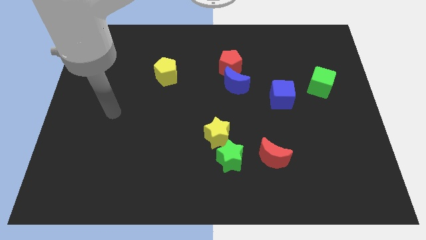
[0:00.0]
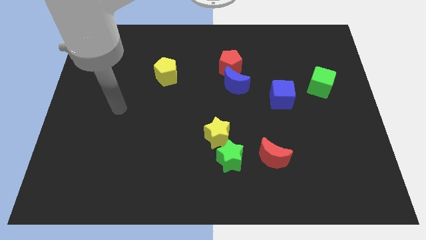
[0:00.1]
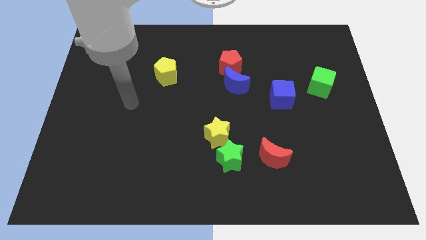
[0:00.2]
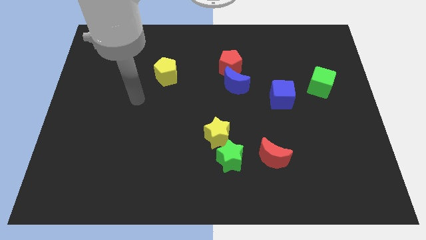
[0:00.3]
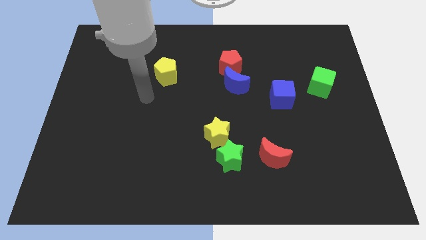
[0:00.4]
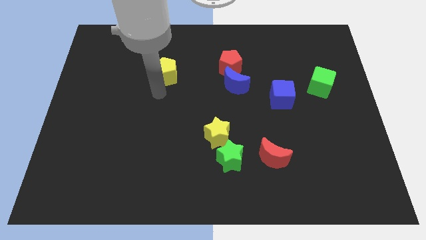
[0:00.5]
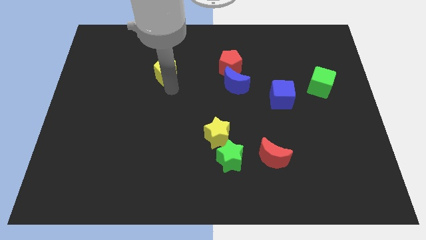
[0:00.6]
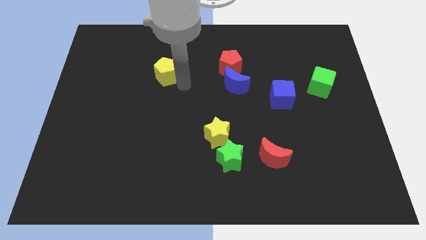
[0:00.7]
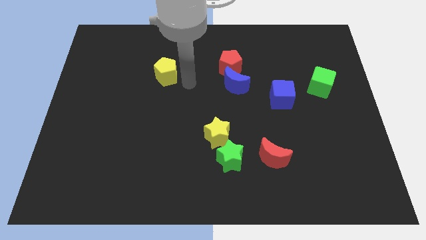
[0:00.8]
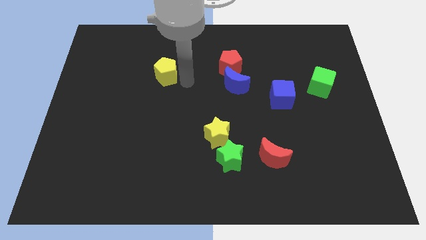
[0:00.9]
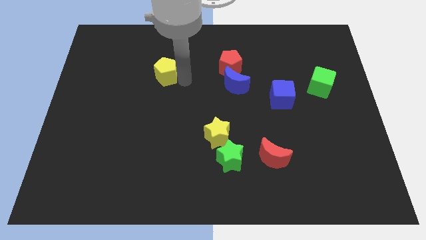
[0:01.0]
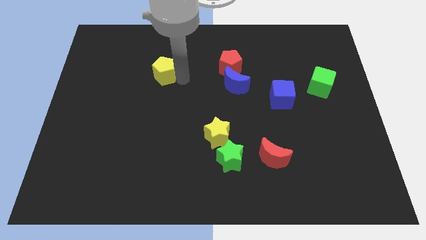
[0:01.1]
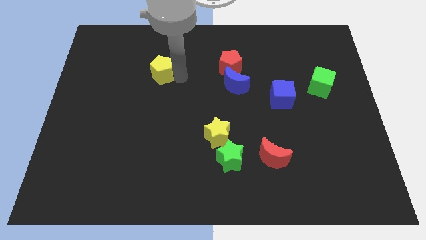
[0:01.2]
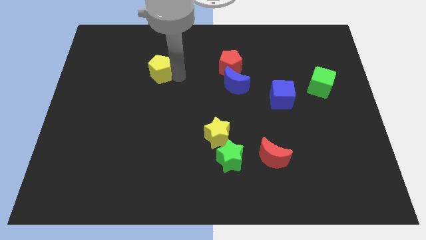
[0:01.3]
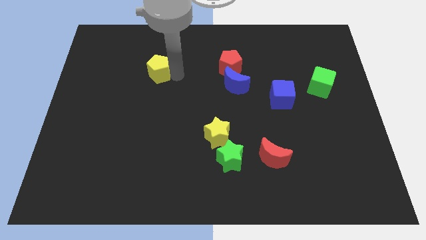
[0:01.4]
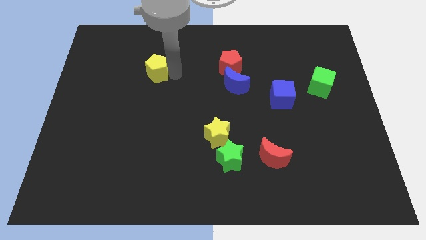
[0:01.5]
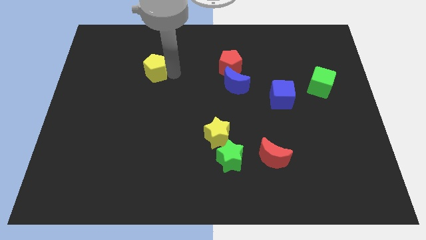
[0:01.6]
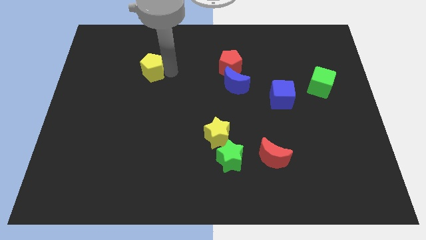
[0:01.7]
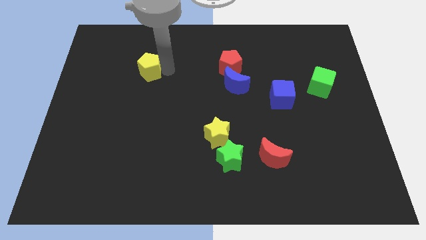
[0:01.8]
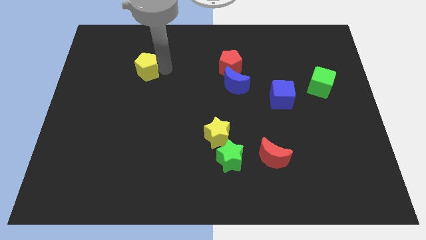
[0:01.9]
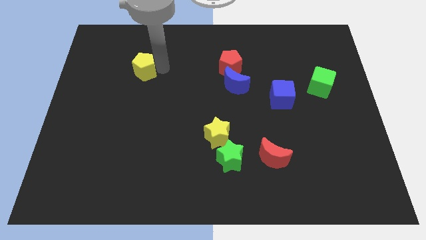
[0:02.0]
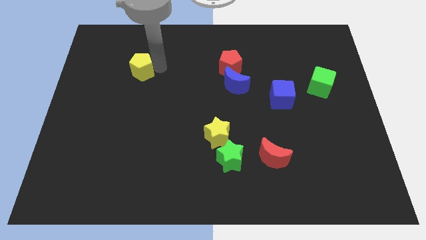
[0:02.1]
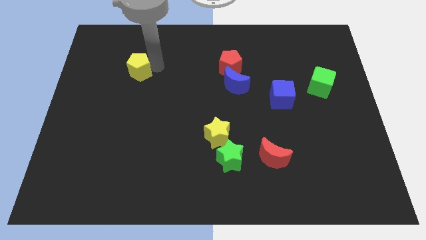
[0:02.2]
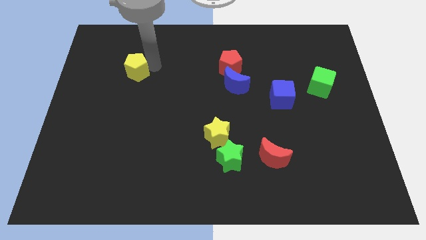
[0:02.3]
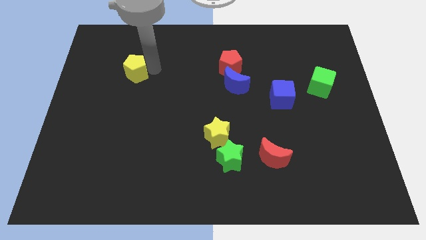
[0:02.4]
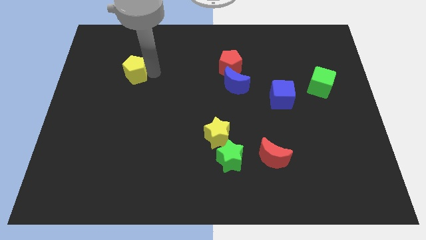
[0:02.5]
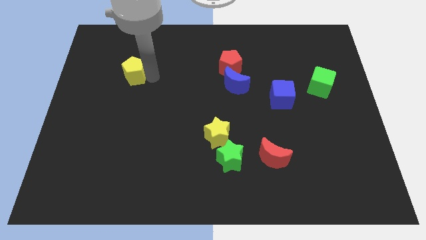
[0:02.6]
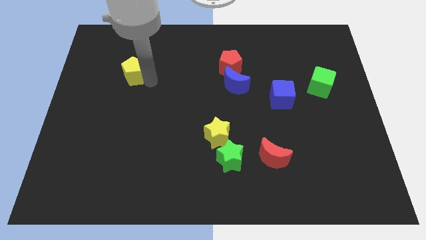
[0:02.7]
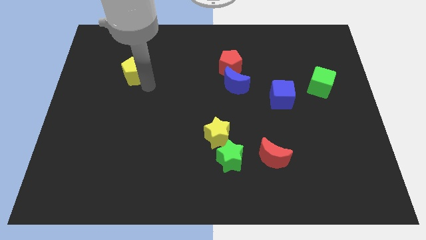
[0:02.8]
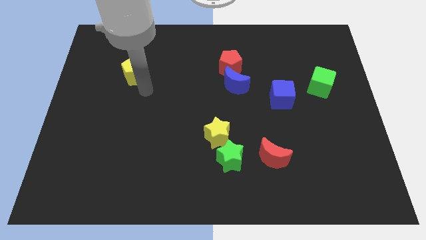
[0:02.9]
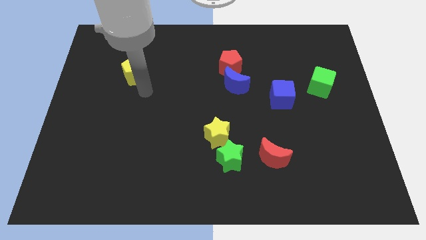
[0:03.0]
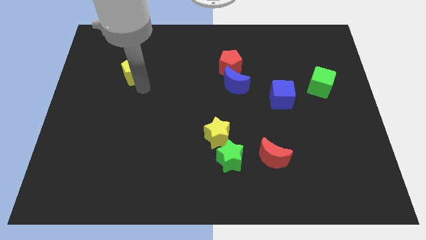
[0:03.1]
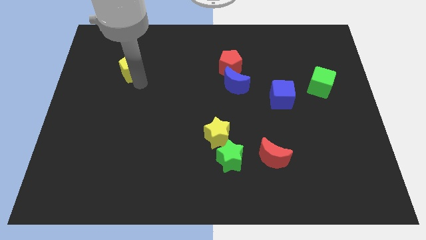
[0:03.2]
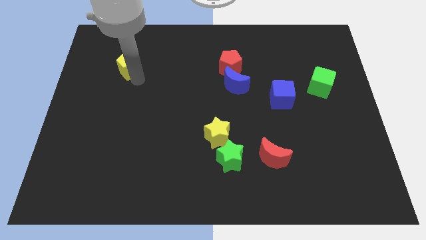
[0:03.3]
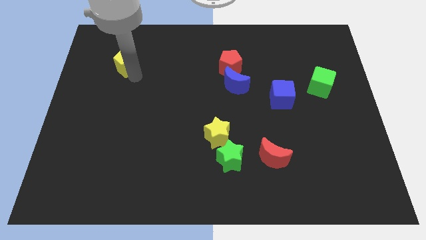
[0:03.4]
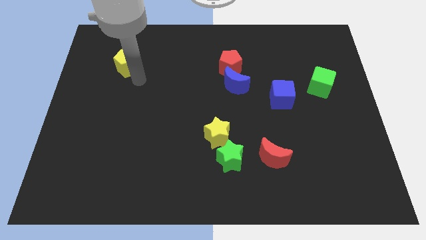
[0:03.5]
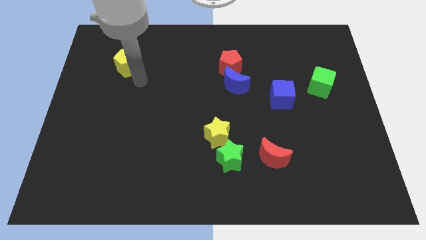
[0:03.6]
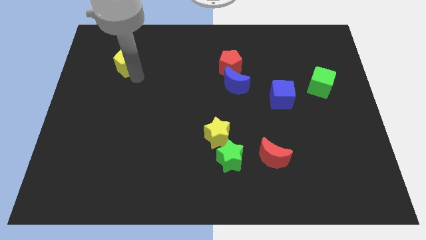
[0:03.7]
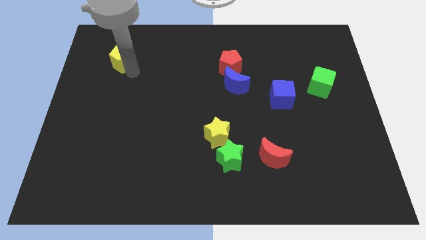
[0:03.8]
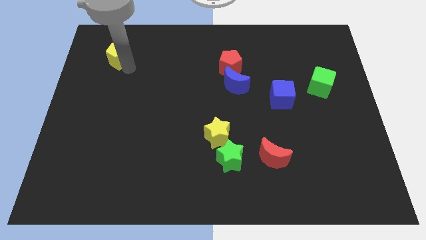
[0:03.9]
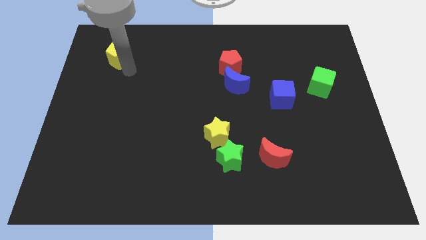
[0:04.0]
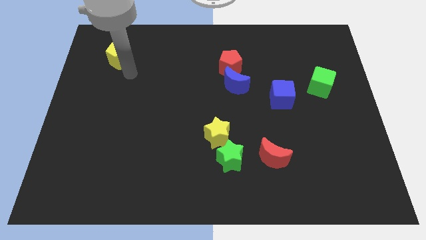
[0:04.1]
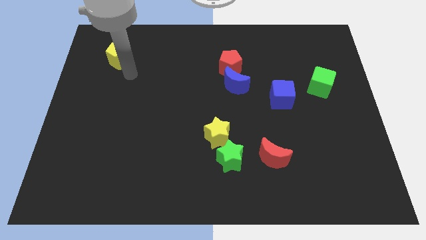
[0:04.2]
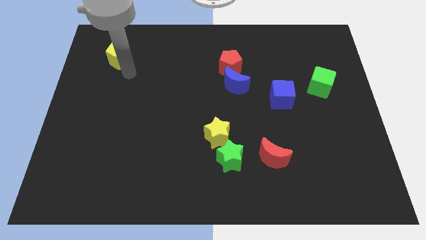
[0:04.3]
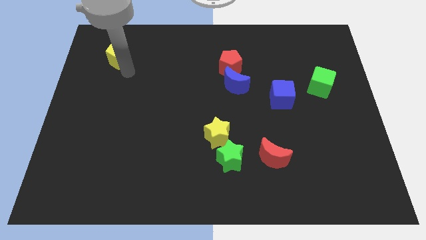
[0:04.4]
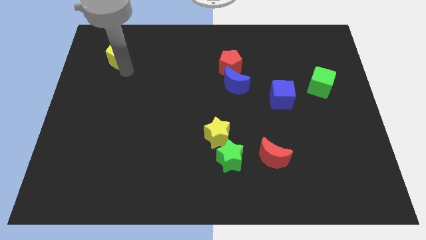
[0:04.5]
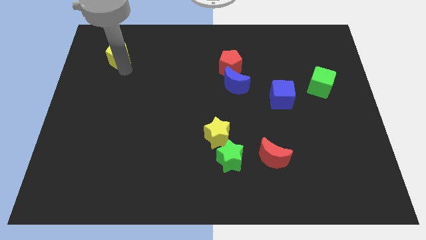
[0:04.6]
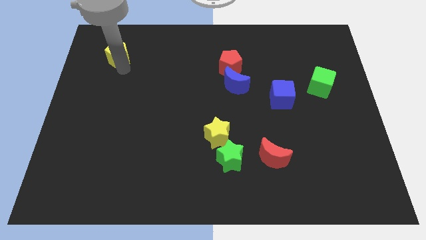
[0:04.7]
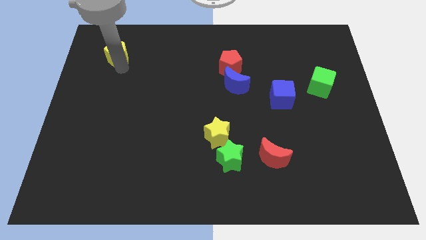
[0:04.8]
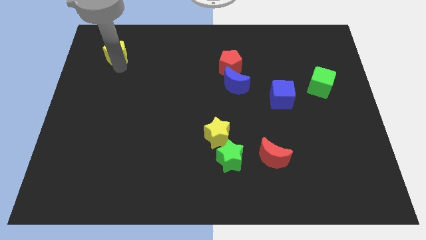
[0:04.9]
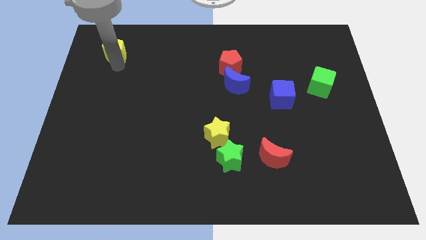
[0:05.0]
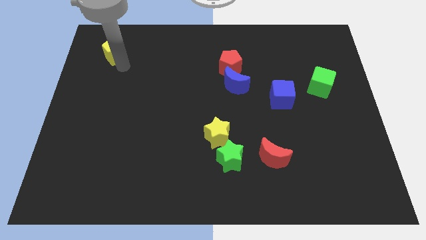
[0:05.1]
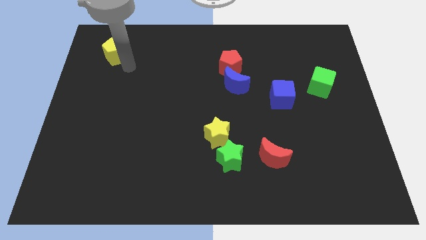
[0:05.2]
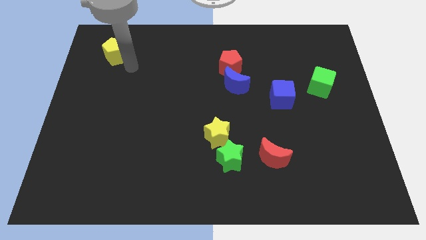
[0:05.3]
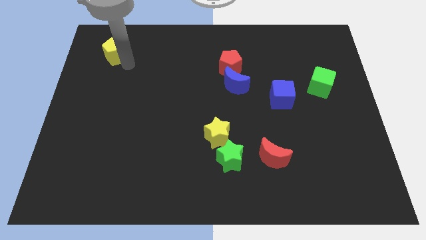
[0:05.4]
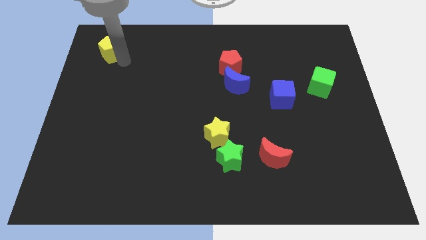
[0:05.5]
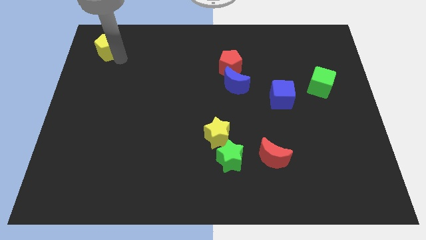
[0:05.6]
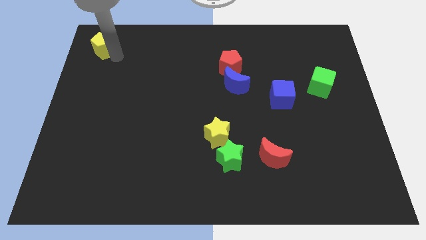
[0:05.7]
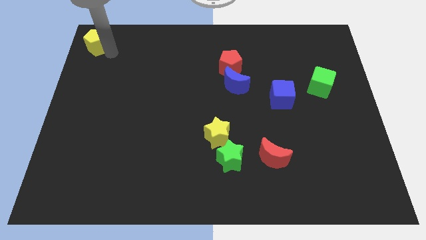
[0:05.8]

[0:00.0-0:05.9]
move the yellow pentagon to the top left of the board
